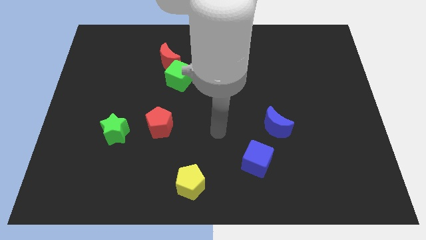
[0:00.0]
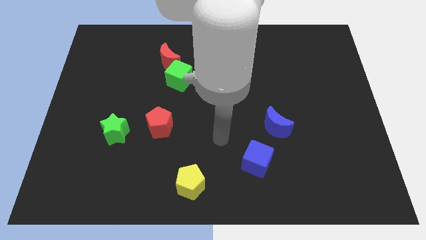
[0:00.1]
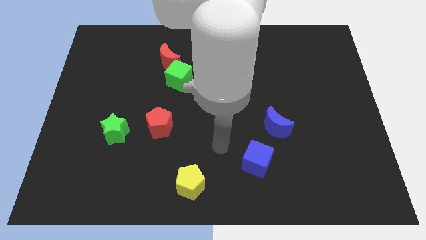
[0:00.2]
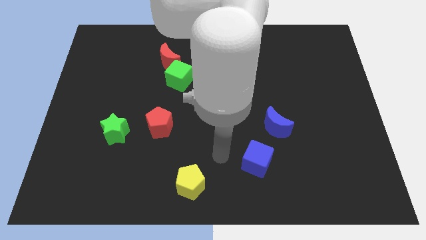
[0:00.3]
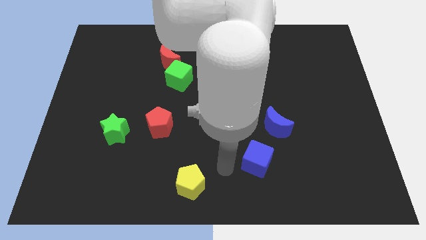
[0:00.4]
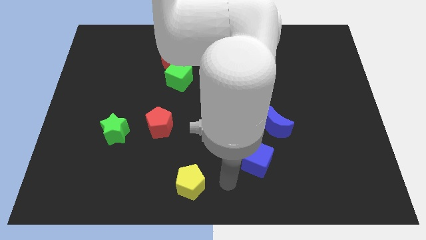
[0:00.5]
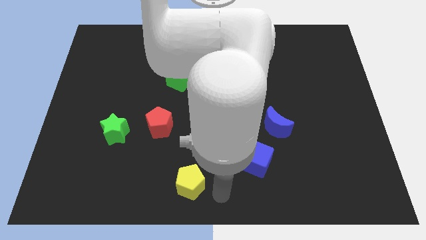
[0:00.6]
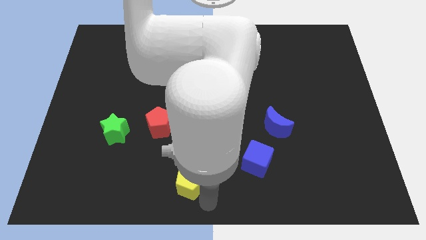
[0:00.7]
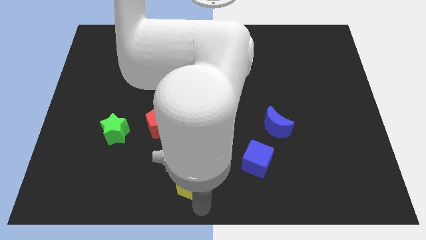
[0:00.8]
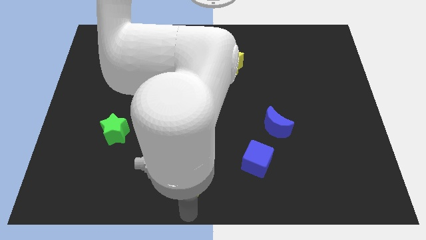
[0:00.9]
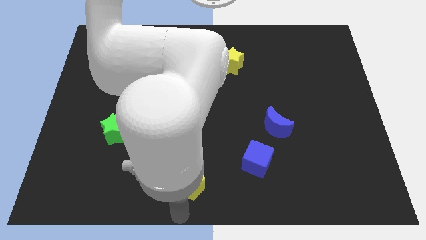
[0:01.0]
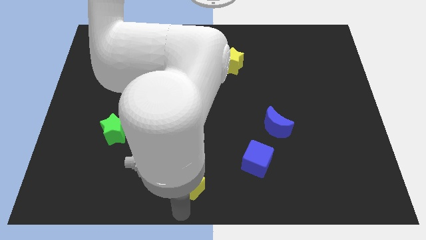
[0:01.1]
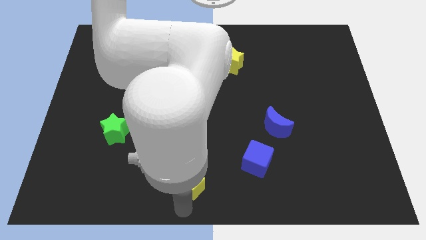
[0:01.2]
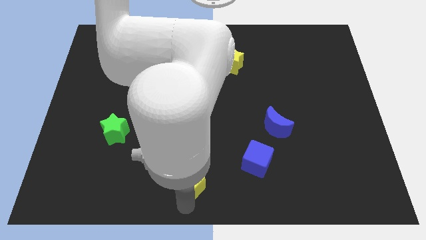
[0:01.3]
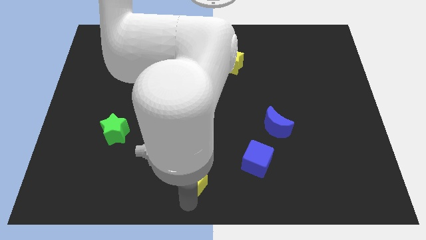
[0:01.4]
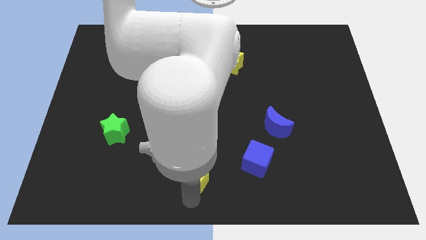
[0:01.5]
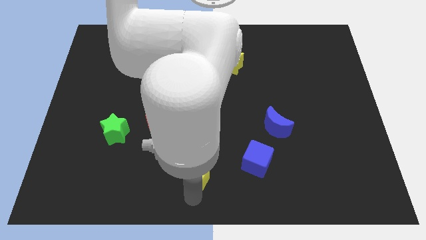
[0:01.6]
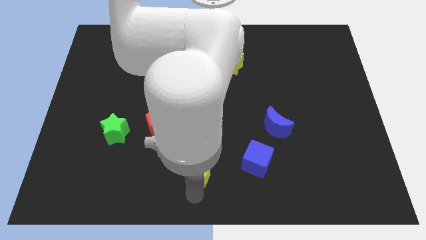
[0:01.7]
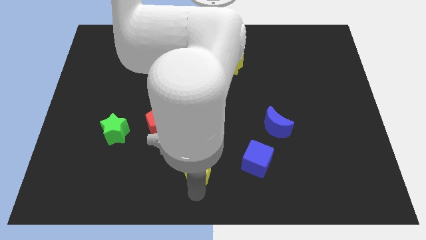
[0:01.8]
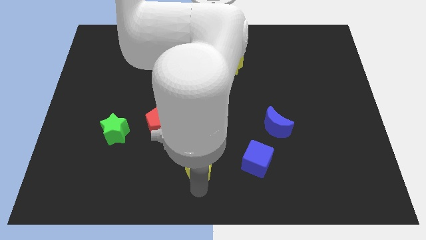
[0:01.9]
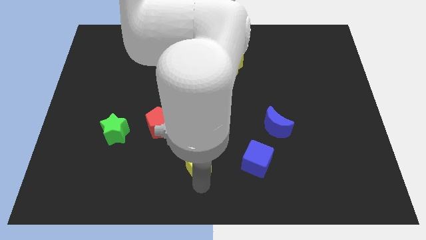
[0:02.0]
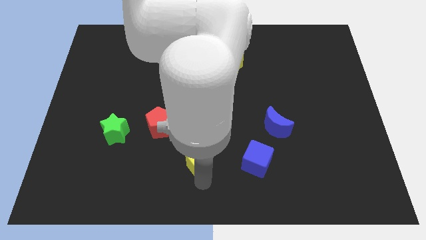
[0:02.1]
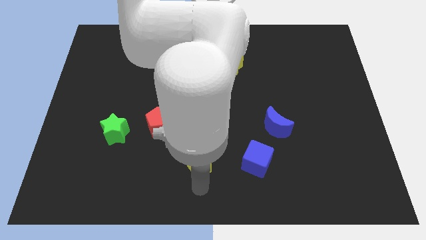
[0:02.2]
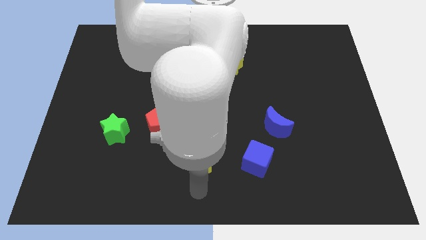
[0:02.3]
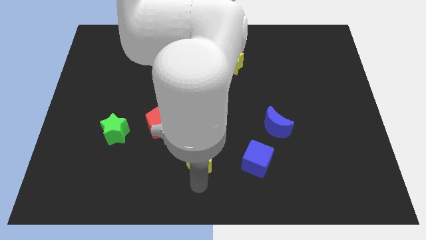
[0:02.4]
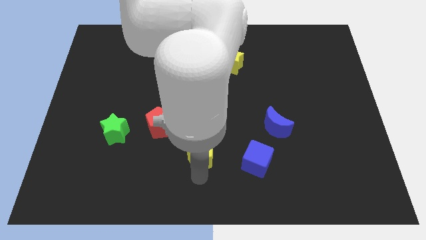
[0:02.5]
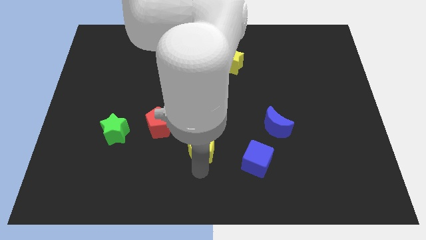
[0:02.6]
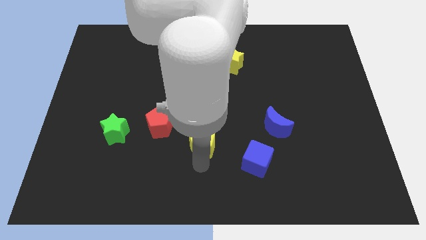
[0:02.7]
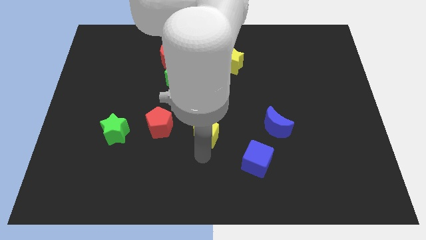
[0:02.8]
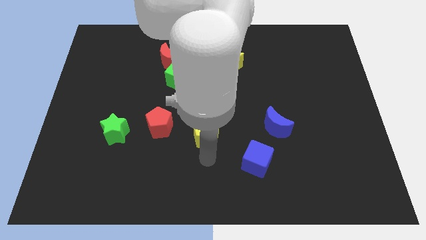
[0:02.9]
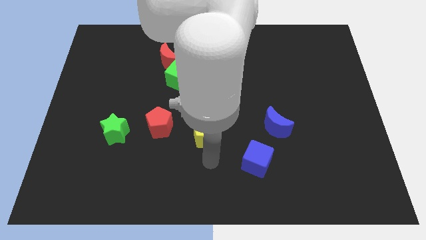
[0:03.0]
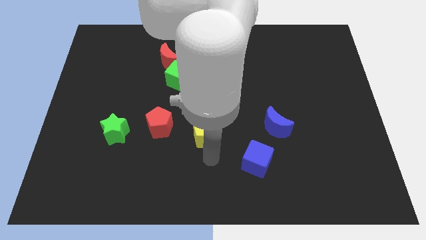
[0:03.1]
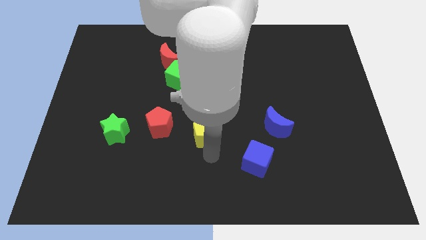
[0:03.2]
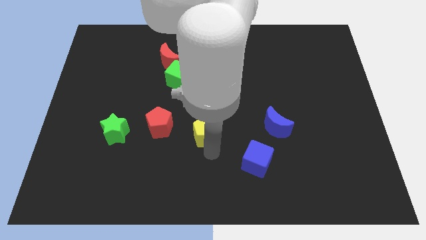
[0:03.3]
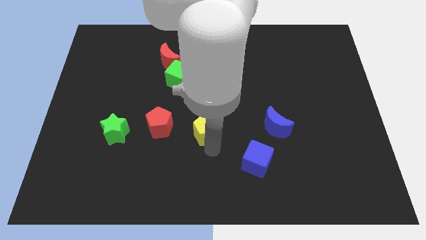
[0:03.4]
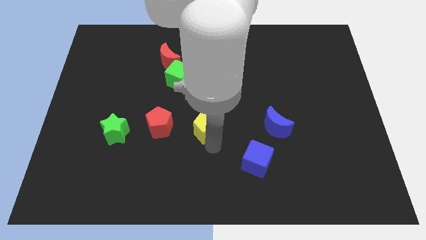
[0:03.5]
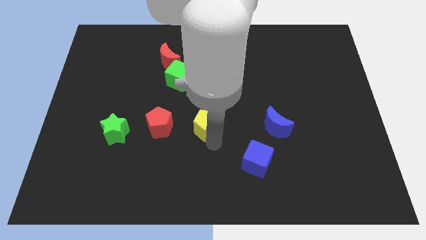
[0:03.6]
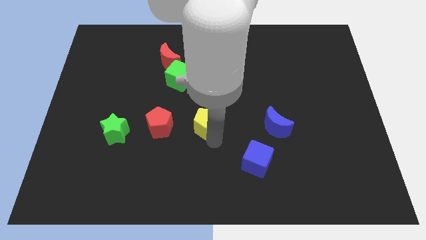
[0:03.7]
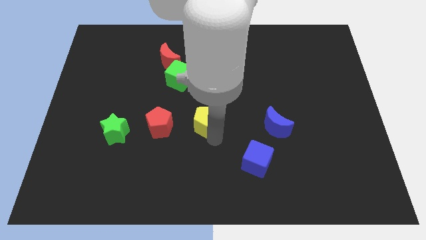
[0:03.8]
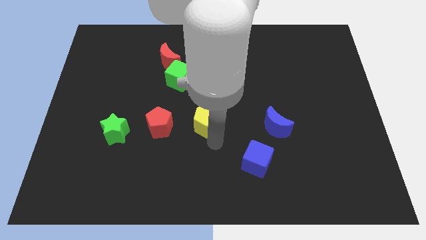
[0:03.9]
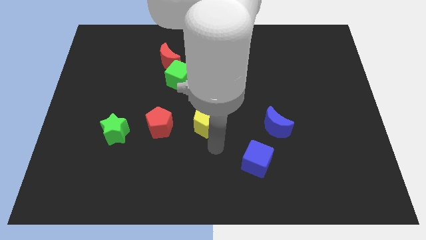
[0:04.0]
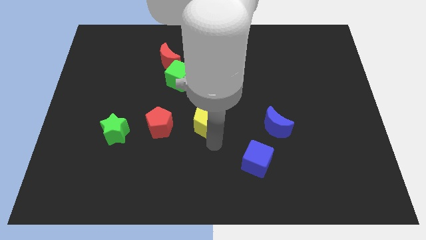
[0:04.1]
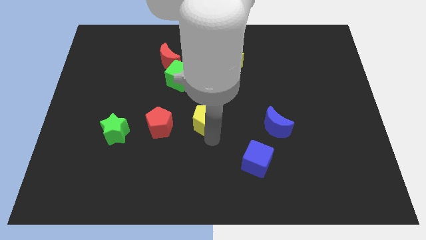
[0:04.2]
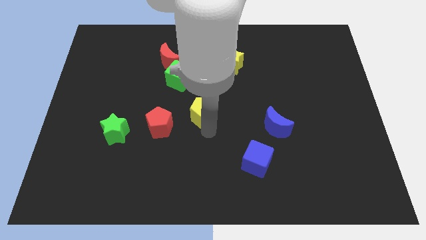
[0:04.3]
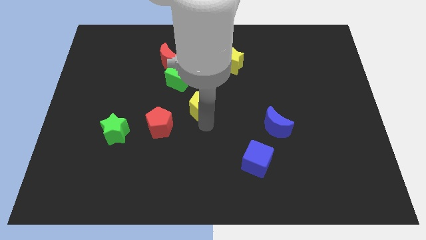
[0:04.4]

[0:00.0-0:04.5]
slide the yellow pentagon diagonally down and to the right of the green cube

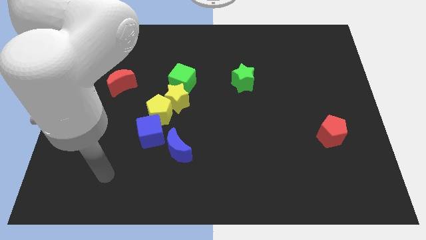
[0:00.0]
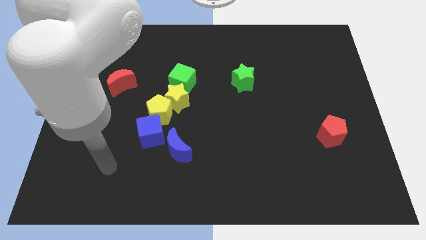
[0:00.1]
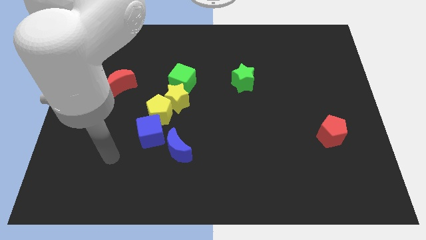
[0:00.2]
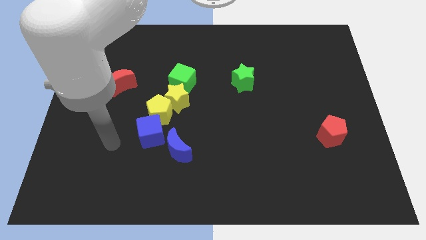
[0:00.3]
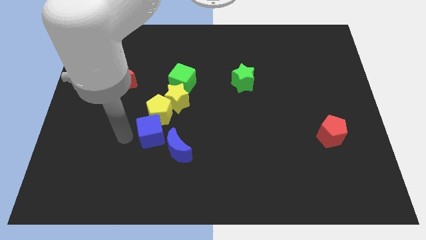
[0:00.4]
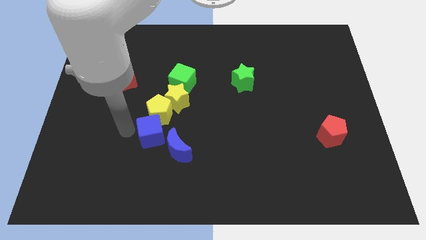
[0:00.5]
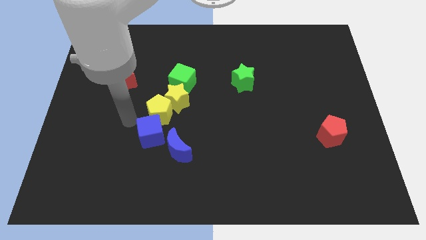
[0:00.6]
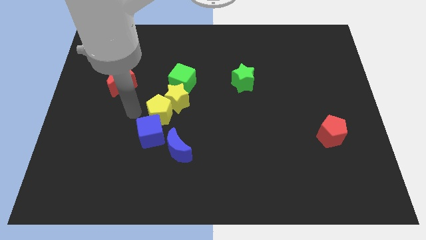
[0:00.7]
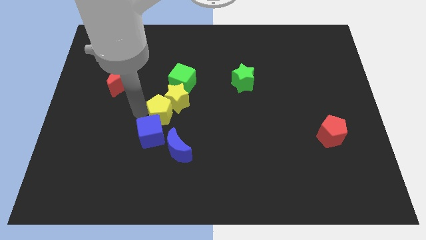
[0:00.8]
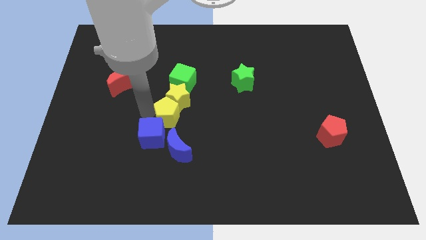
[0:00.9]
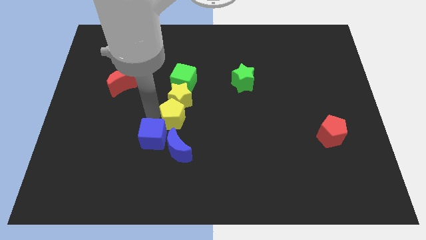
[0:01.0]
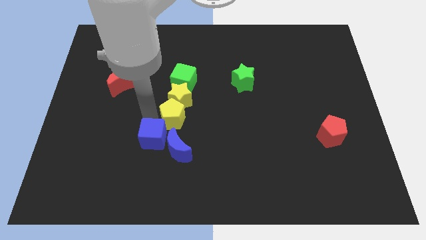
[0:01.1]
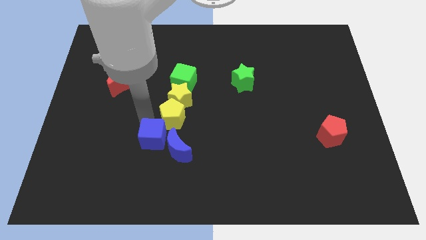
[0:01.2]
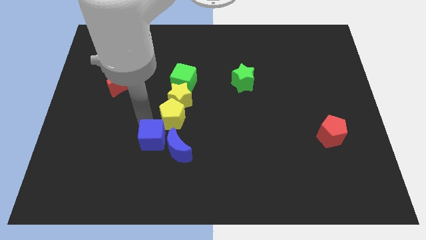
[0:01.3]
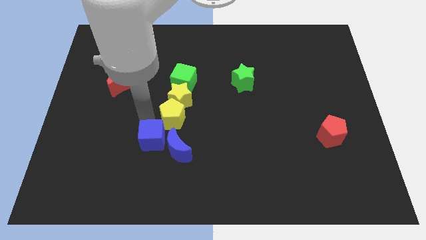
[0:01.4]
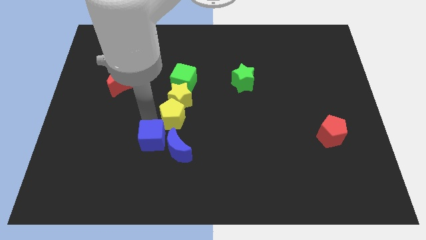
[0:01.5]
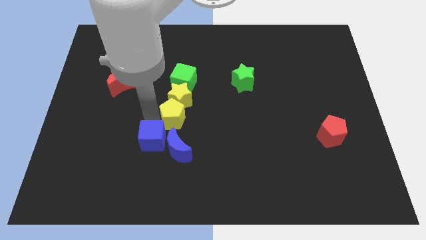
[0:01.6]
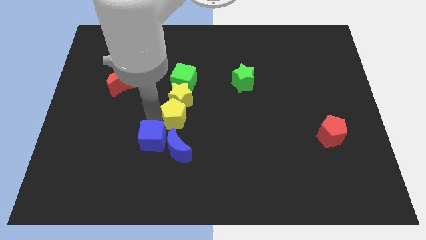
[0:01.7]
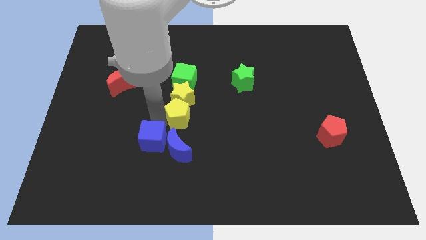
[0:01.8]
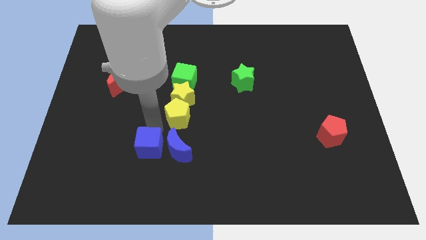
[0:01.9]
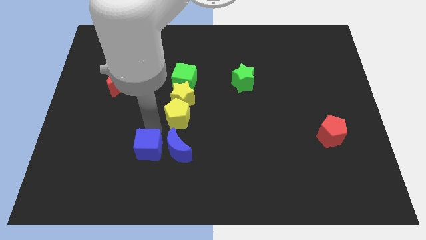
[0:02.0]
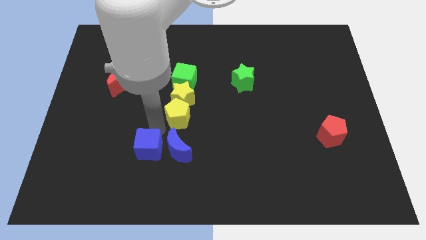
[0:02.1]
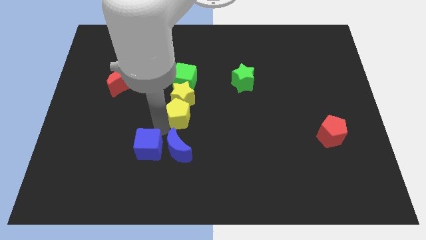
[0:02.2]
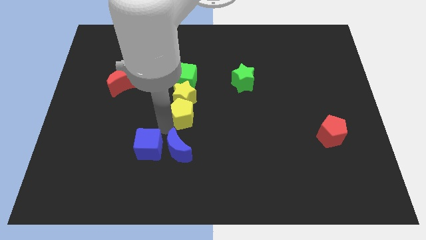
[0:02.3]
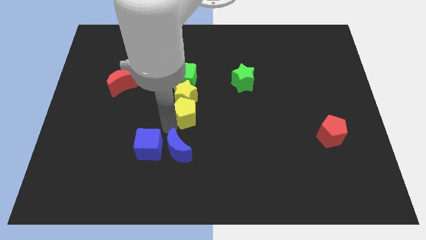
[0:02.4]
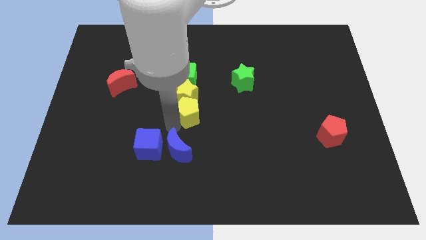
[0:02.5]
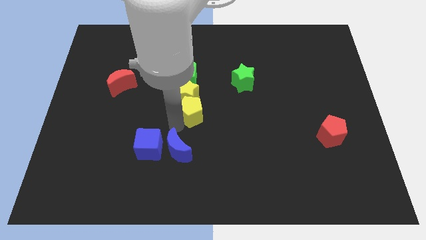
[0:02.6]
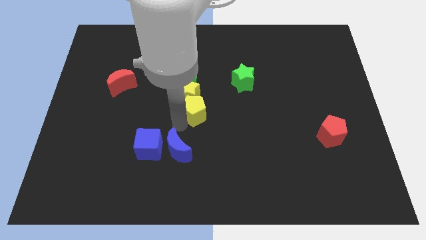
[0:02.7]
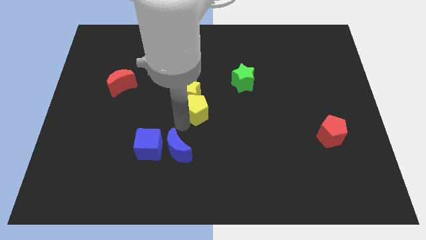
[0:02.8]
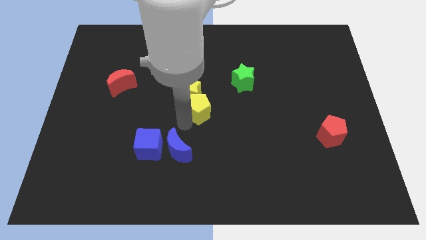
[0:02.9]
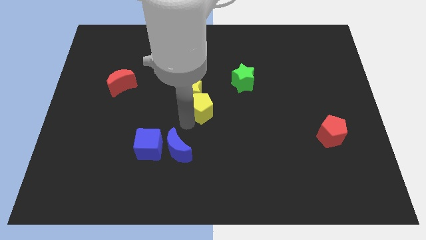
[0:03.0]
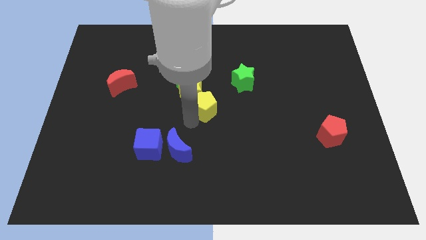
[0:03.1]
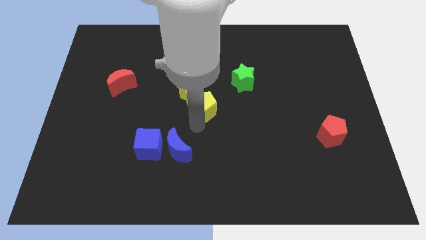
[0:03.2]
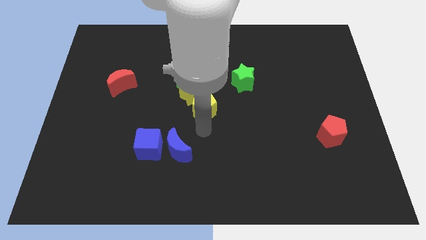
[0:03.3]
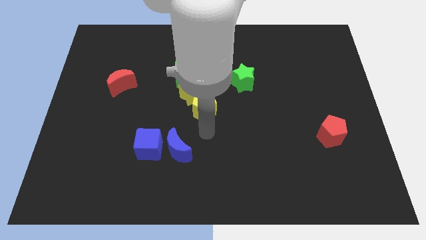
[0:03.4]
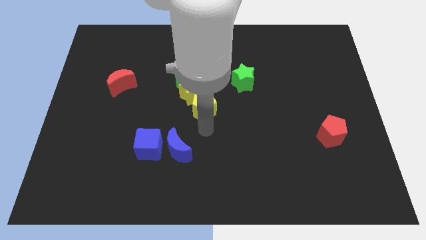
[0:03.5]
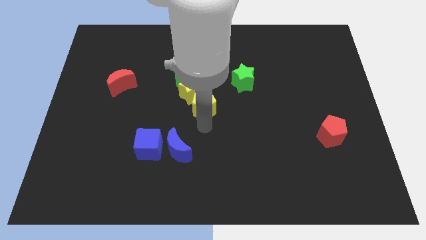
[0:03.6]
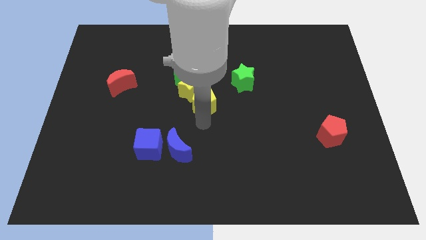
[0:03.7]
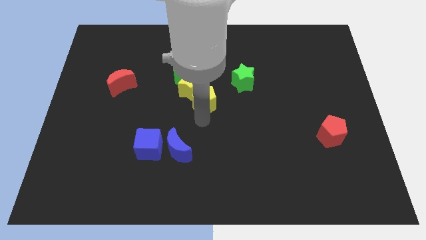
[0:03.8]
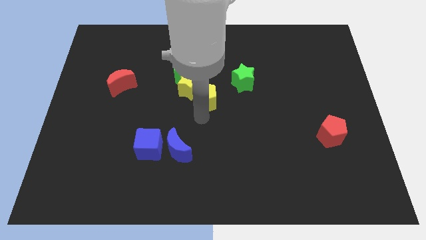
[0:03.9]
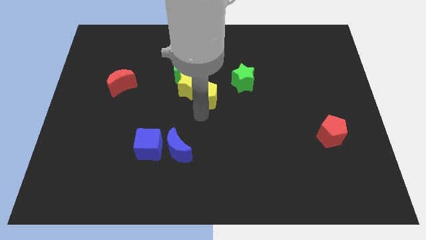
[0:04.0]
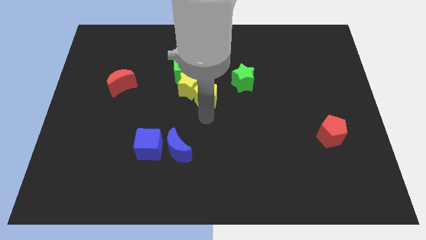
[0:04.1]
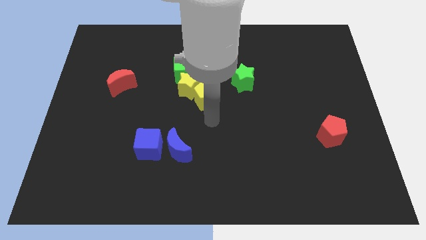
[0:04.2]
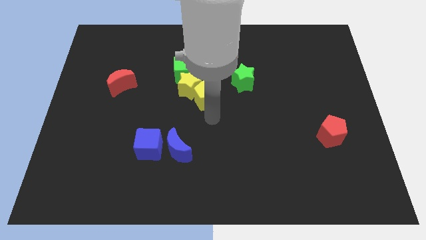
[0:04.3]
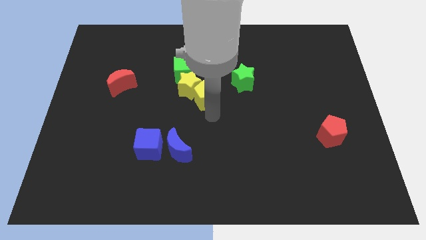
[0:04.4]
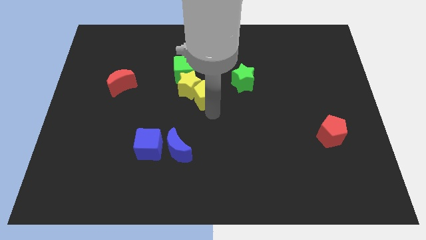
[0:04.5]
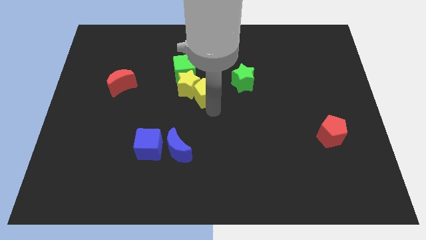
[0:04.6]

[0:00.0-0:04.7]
slide the yellow pentagon to the left of the green star
